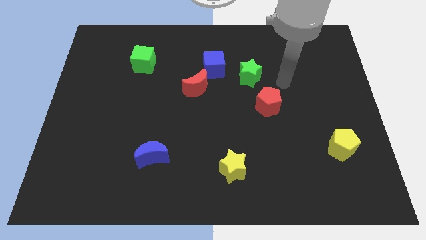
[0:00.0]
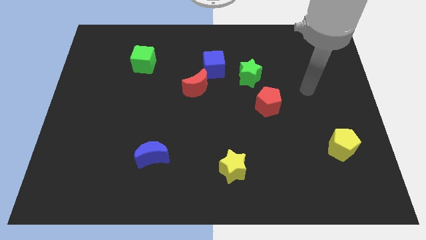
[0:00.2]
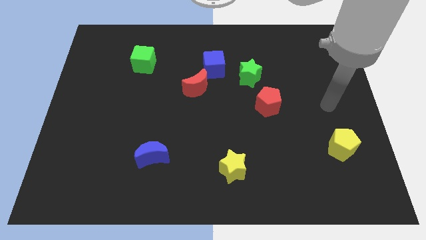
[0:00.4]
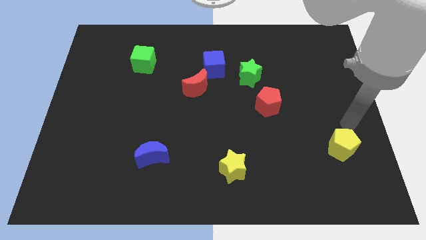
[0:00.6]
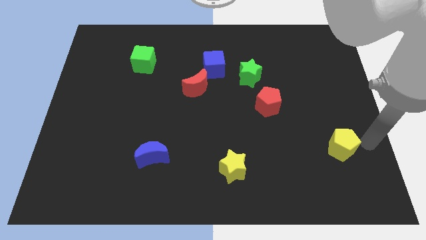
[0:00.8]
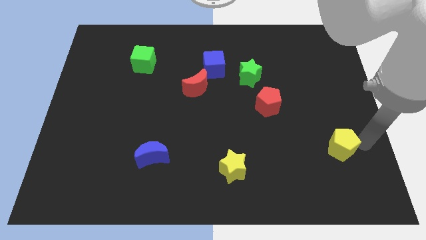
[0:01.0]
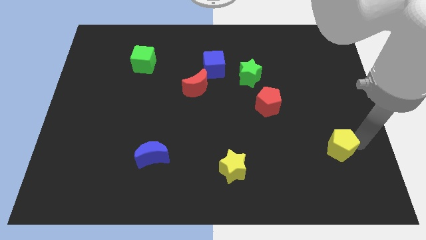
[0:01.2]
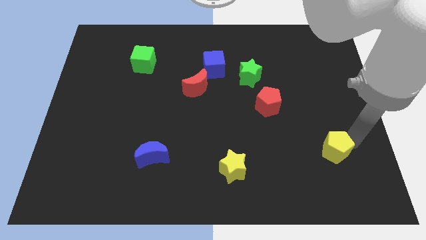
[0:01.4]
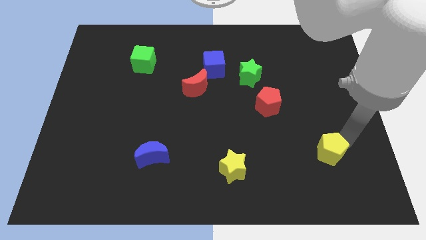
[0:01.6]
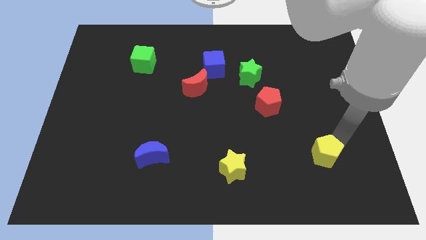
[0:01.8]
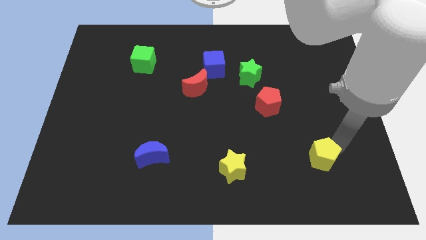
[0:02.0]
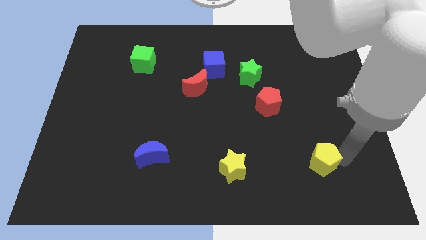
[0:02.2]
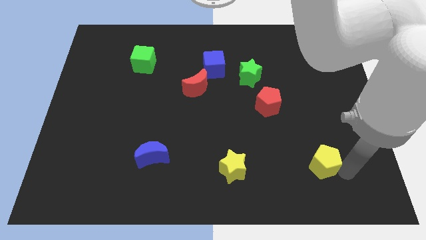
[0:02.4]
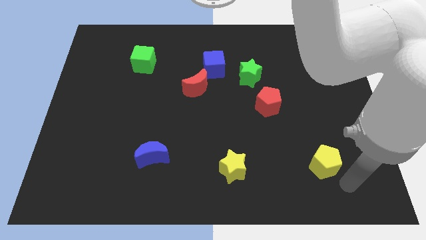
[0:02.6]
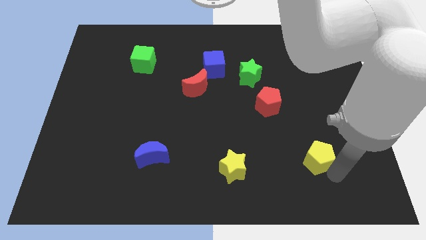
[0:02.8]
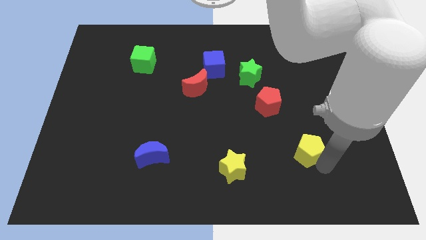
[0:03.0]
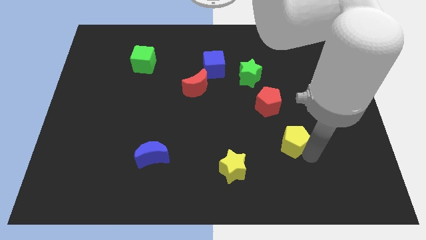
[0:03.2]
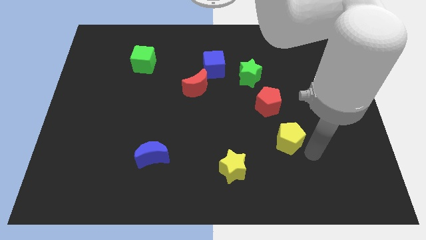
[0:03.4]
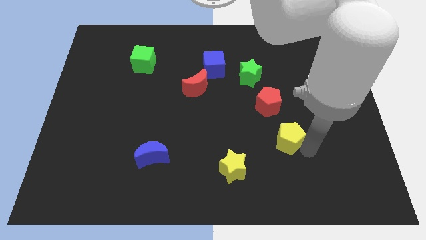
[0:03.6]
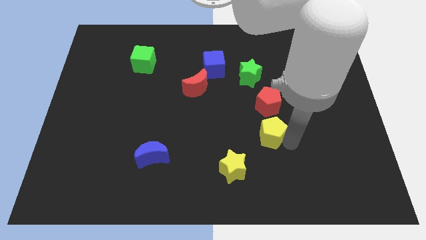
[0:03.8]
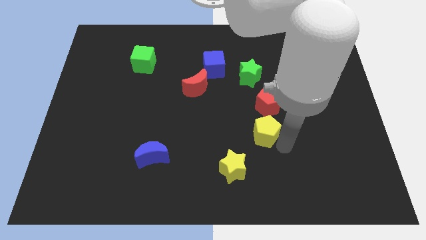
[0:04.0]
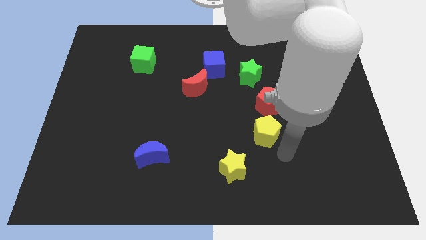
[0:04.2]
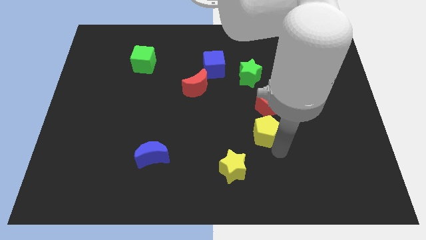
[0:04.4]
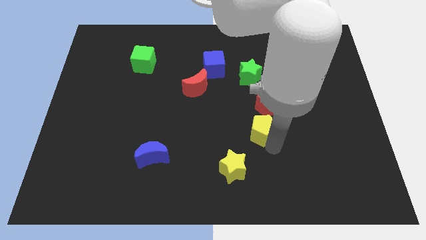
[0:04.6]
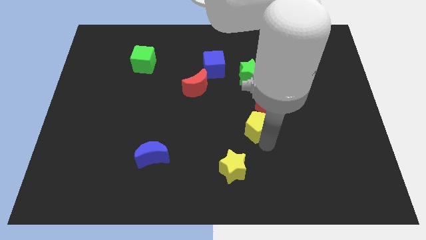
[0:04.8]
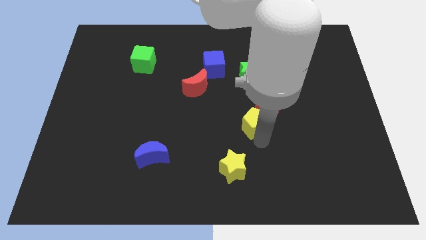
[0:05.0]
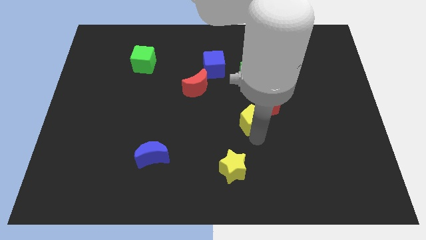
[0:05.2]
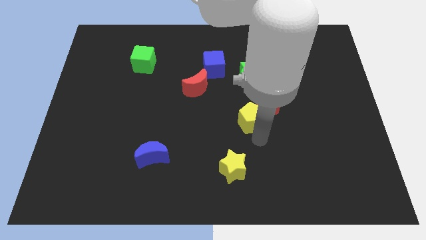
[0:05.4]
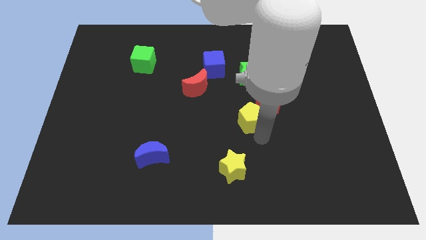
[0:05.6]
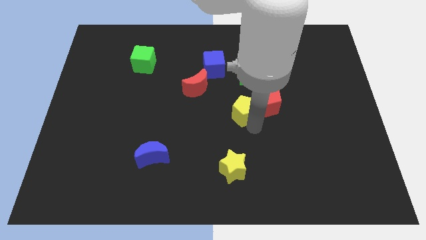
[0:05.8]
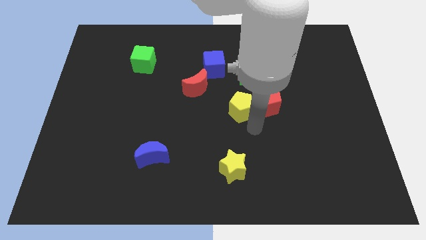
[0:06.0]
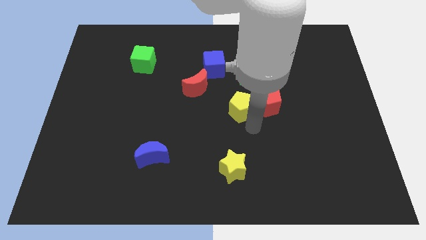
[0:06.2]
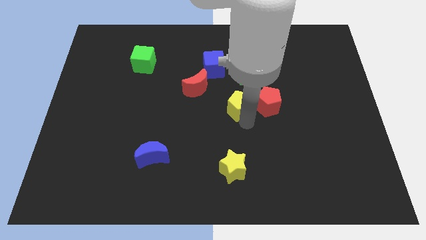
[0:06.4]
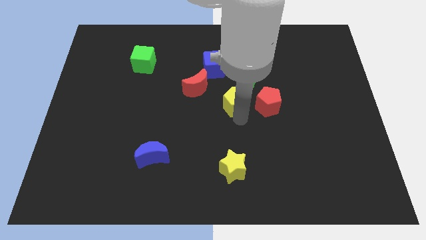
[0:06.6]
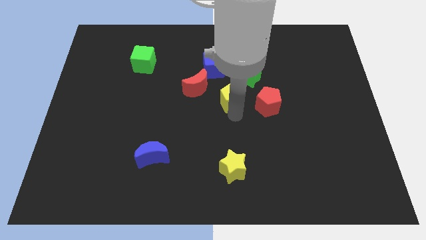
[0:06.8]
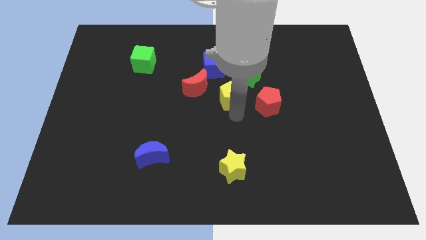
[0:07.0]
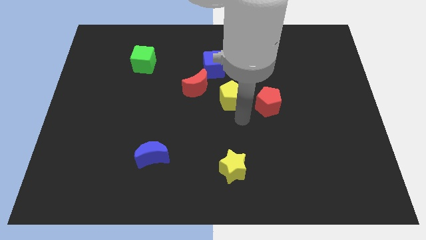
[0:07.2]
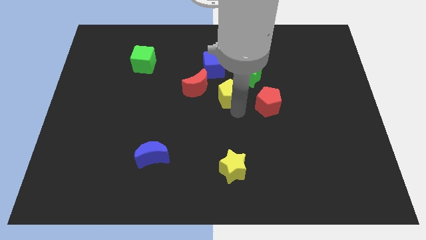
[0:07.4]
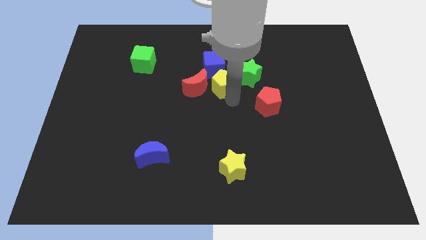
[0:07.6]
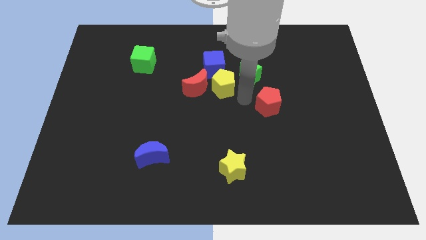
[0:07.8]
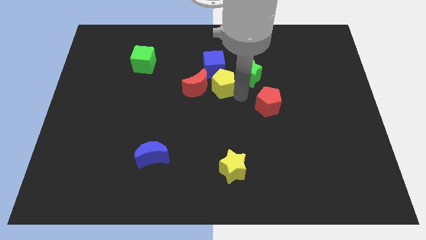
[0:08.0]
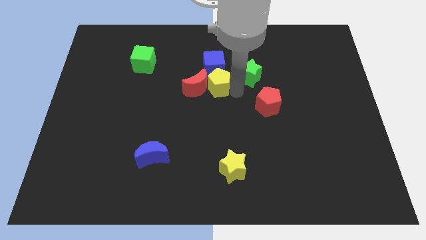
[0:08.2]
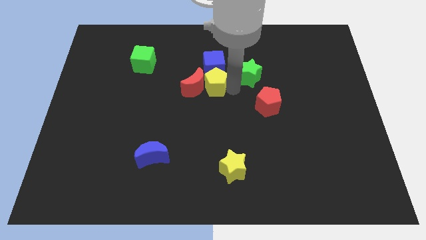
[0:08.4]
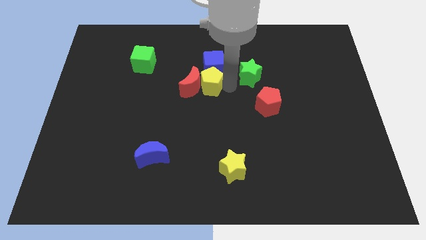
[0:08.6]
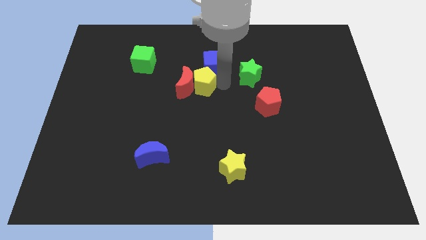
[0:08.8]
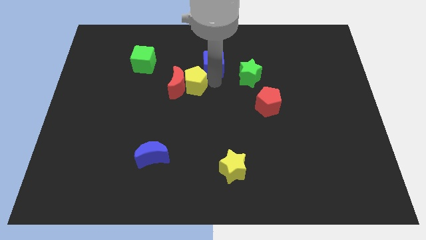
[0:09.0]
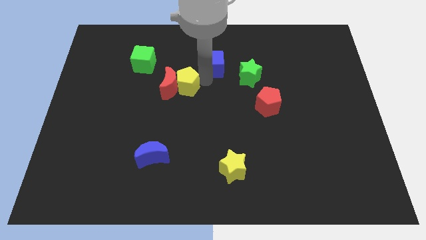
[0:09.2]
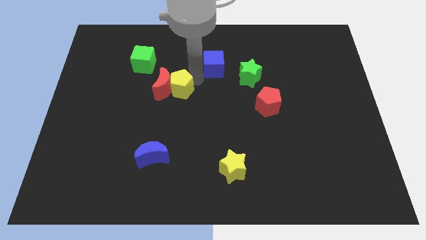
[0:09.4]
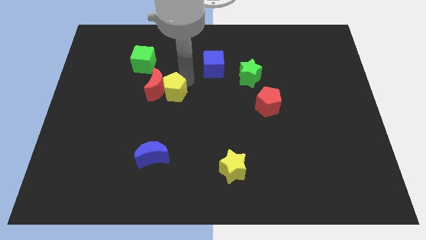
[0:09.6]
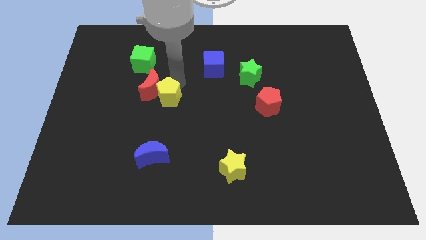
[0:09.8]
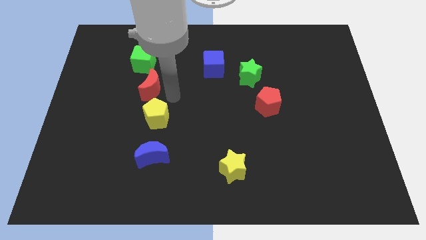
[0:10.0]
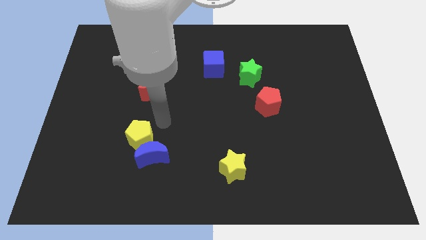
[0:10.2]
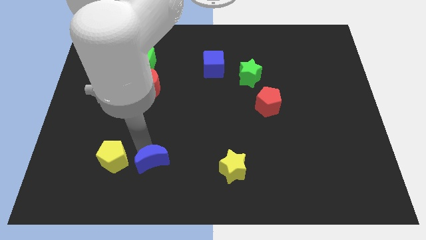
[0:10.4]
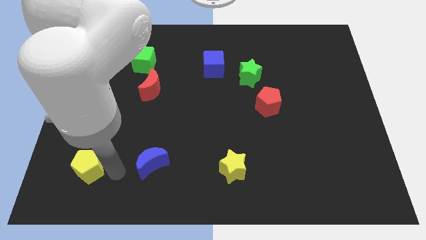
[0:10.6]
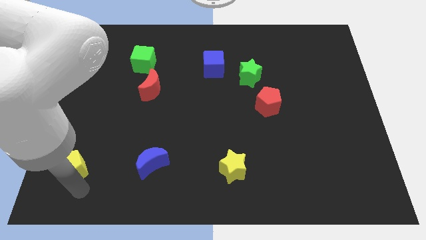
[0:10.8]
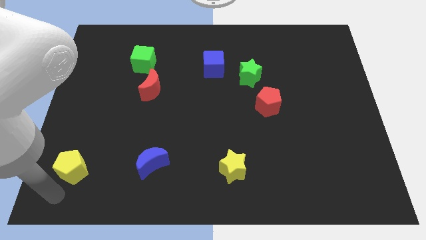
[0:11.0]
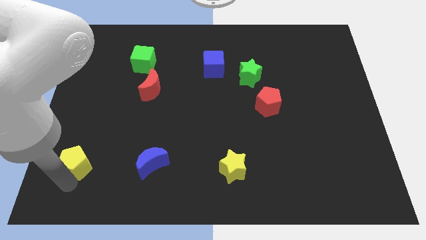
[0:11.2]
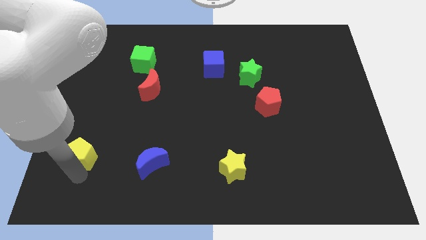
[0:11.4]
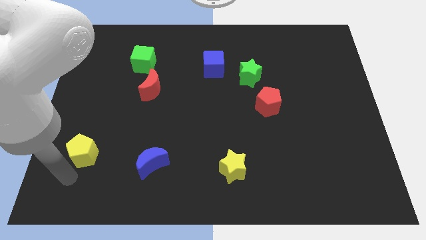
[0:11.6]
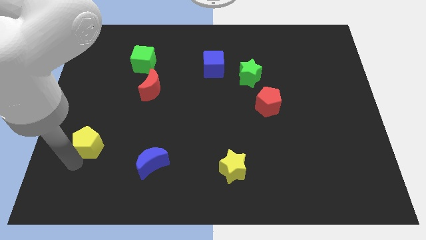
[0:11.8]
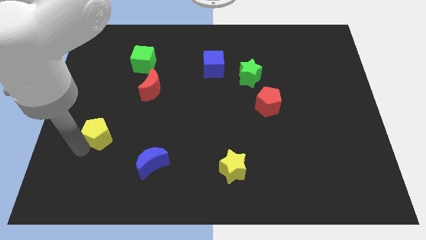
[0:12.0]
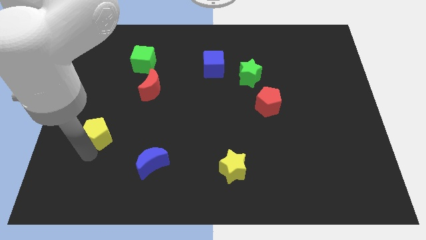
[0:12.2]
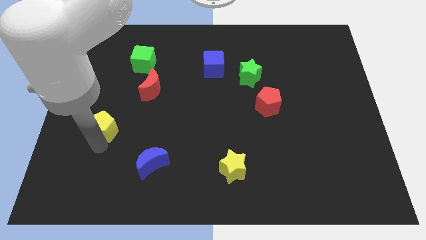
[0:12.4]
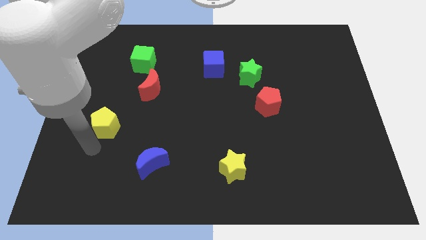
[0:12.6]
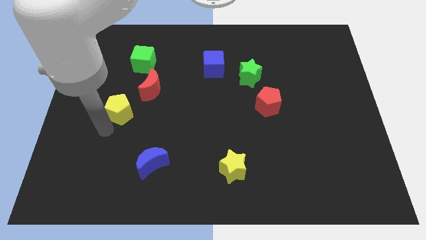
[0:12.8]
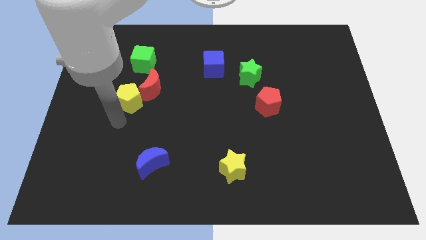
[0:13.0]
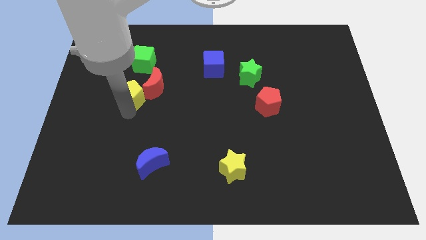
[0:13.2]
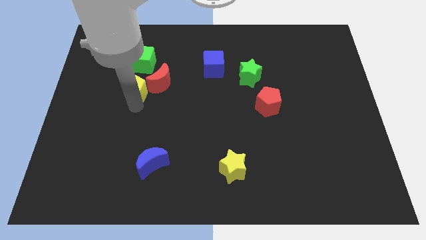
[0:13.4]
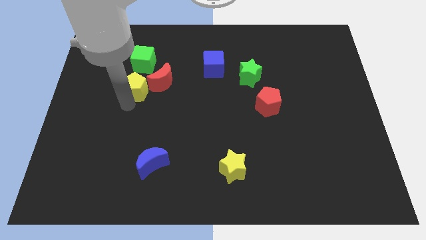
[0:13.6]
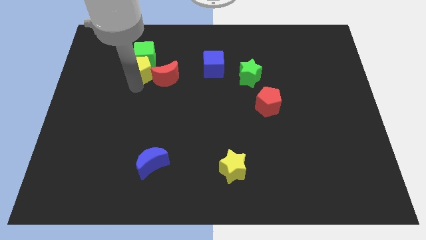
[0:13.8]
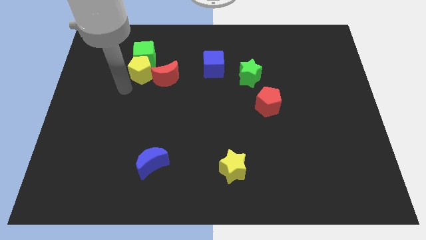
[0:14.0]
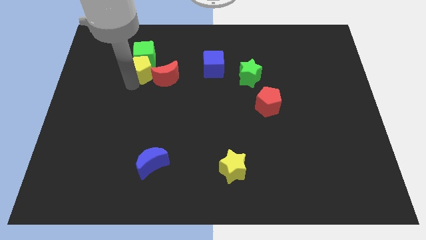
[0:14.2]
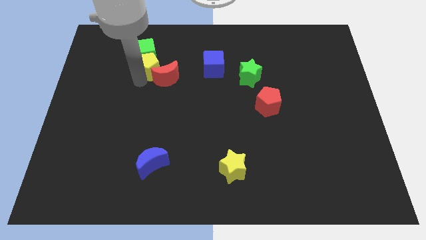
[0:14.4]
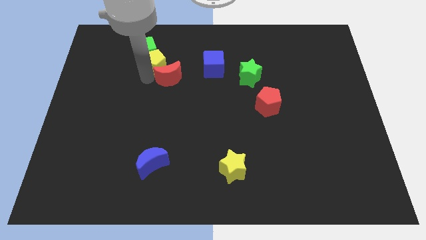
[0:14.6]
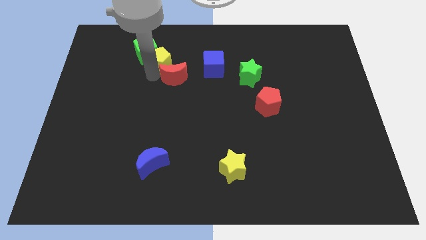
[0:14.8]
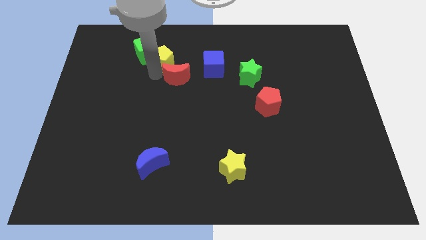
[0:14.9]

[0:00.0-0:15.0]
slide the yellow pentagon to the top of the red moon

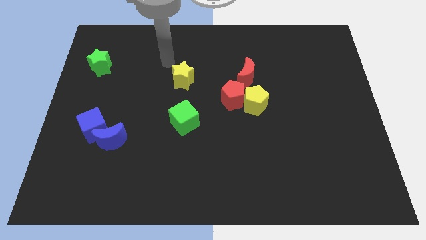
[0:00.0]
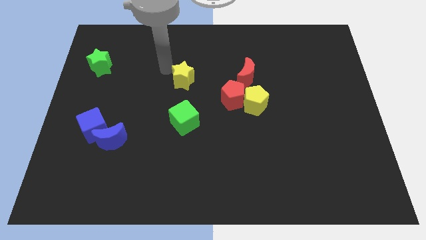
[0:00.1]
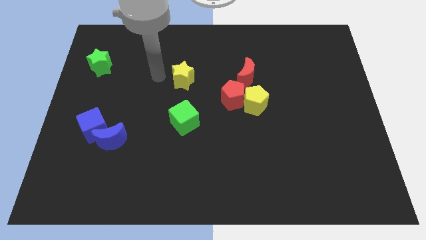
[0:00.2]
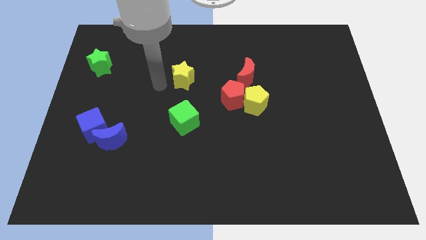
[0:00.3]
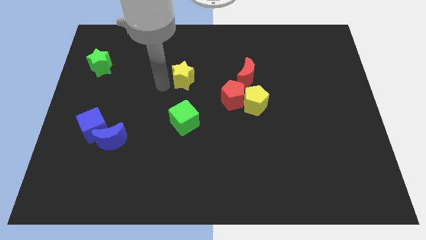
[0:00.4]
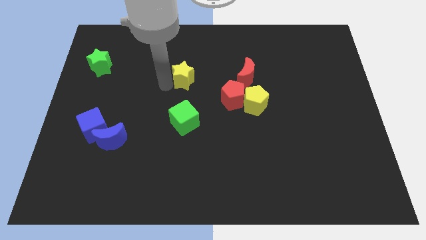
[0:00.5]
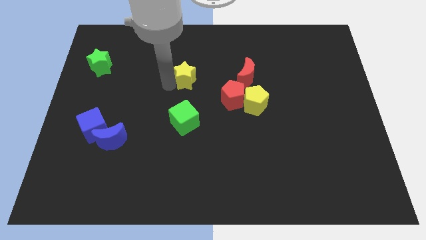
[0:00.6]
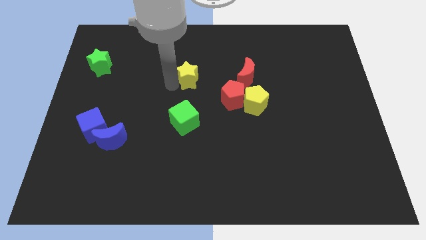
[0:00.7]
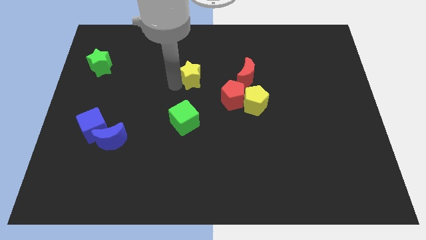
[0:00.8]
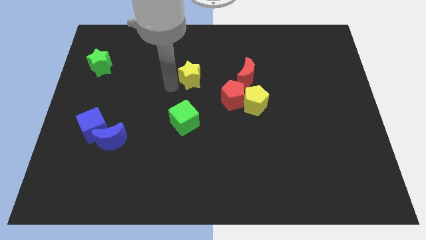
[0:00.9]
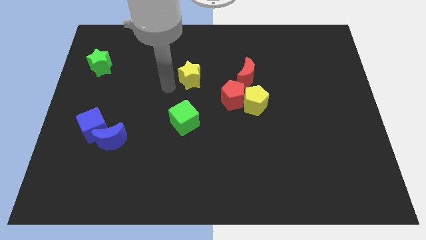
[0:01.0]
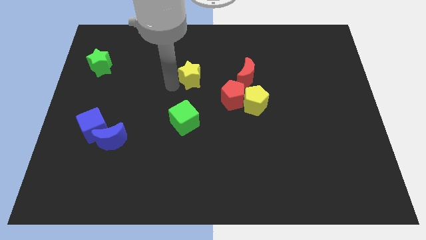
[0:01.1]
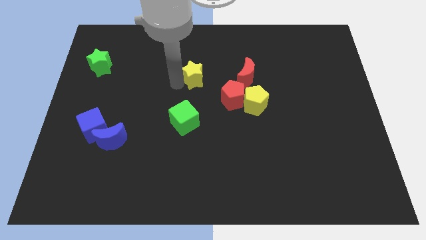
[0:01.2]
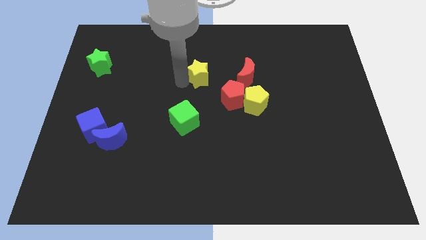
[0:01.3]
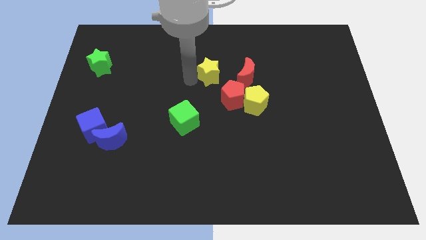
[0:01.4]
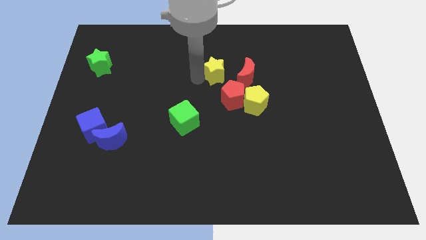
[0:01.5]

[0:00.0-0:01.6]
move the yellow star to the top left side of the red moon
